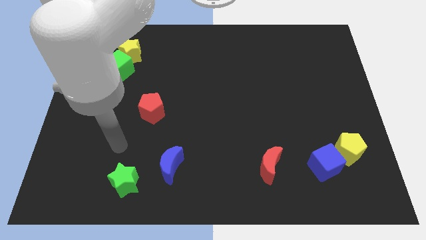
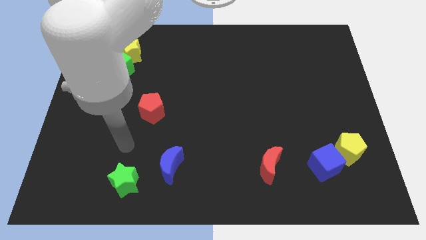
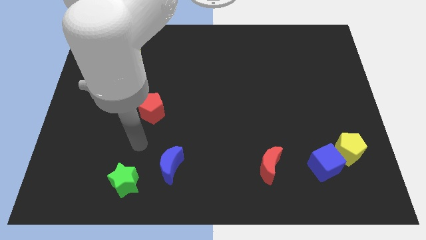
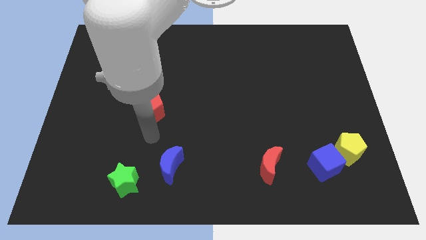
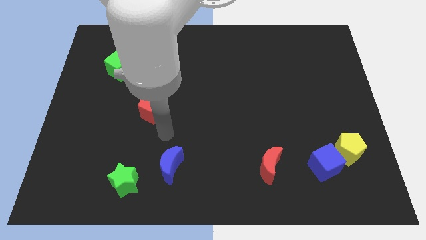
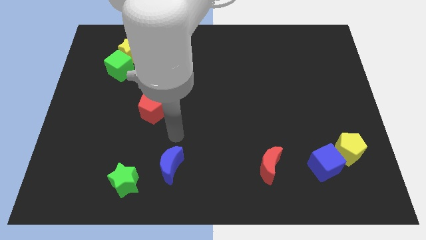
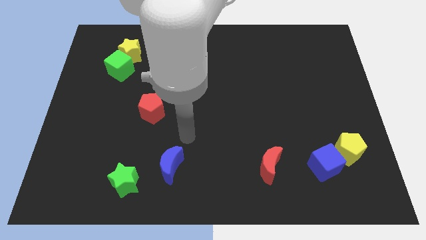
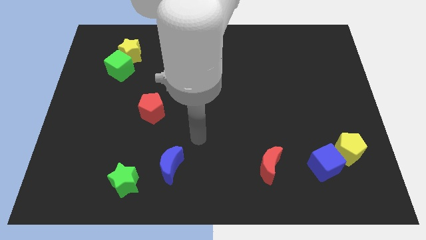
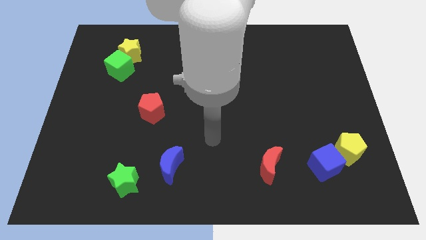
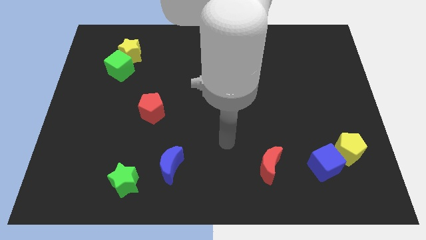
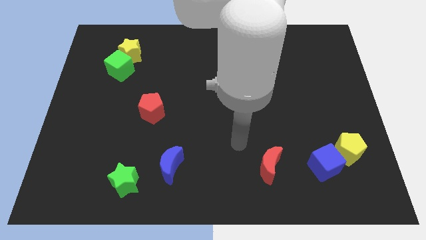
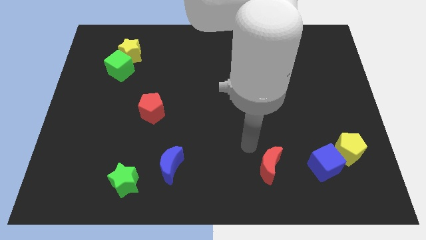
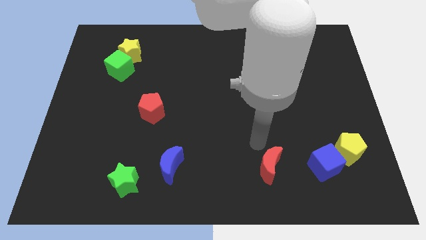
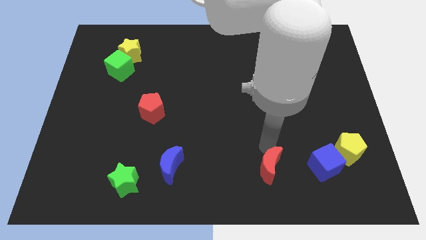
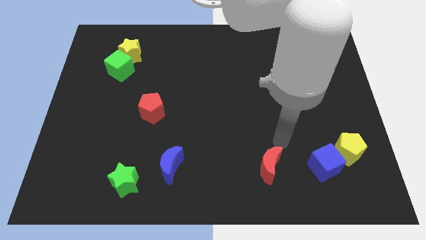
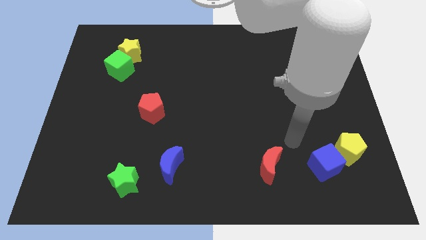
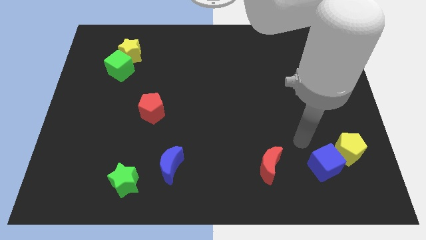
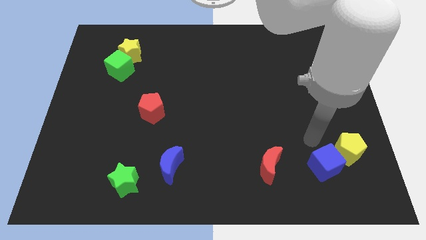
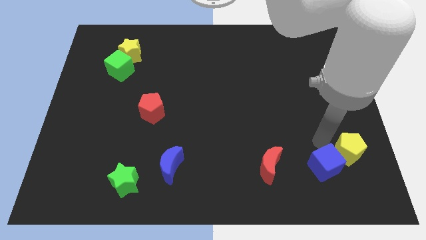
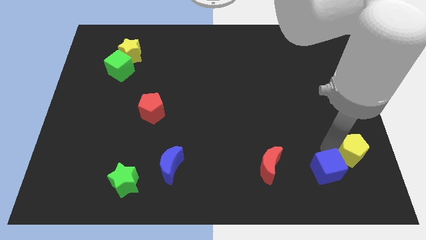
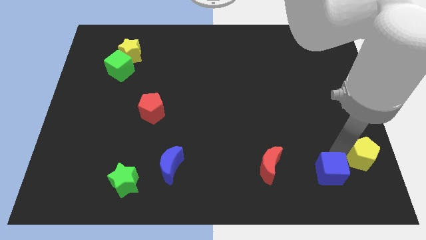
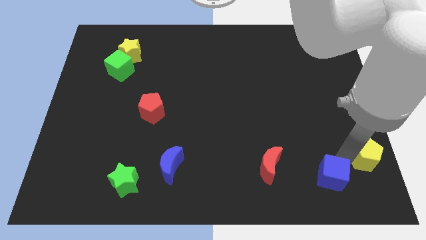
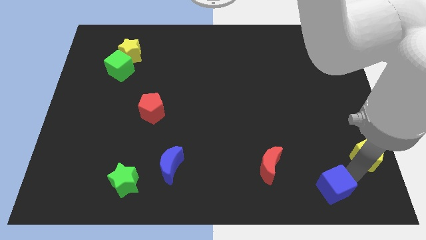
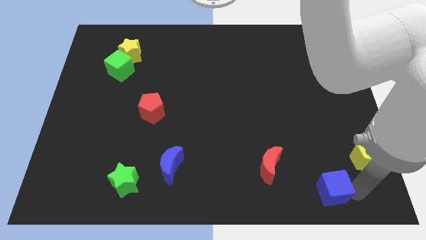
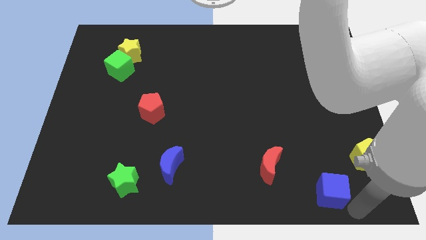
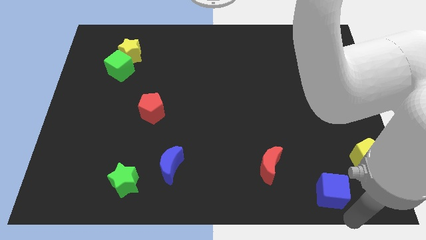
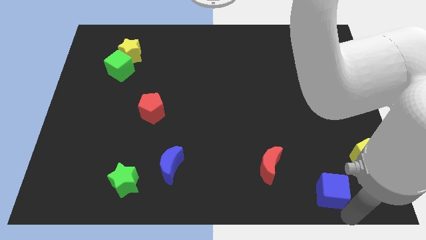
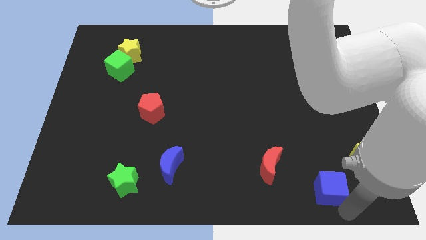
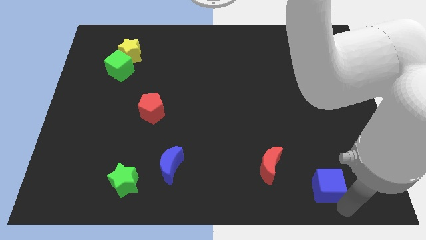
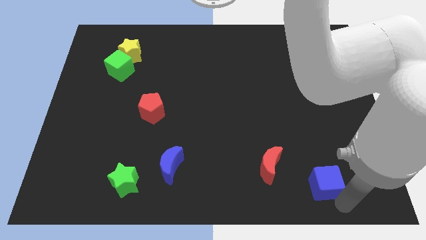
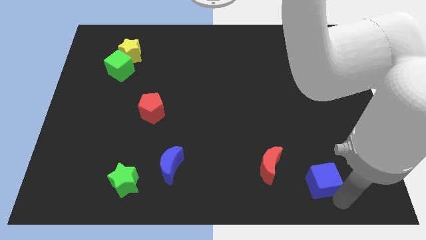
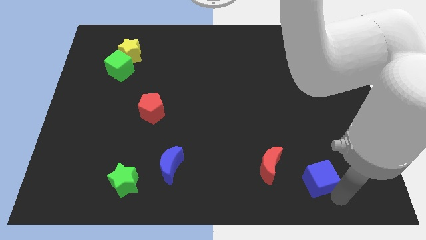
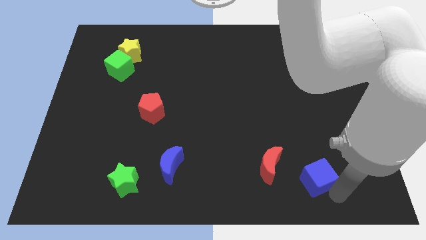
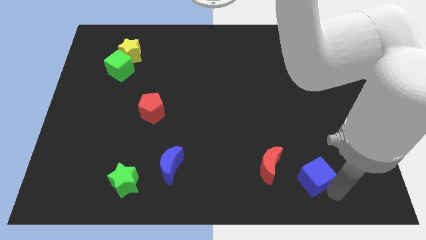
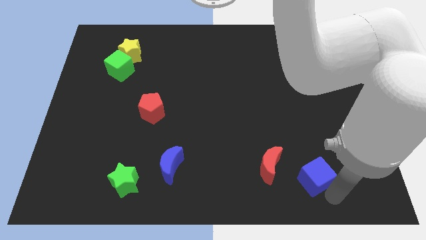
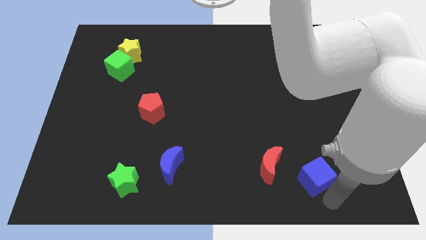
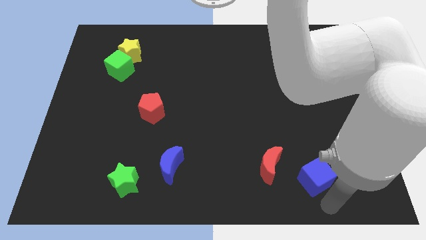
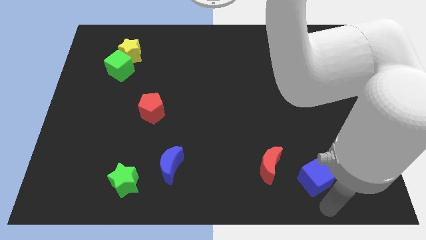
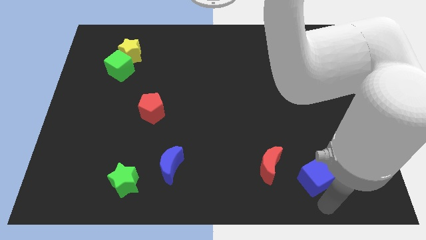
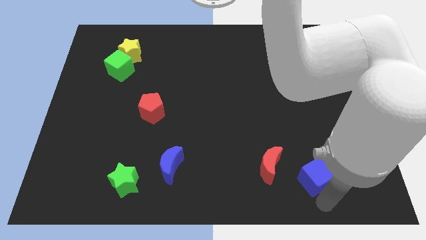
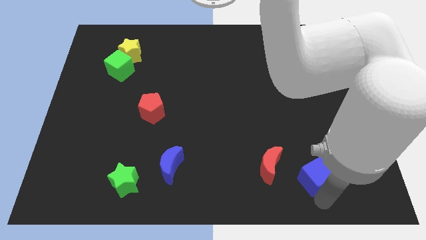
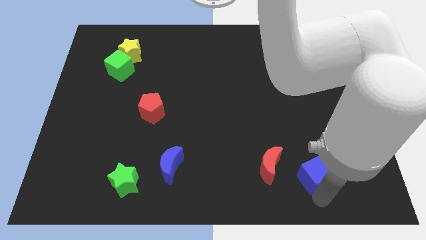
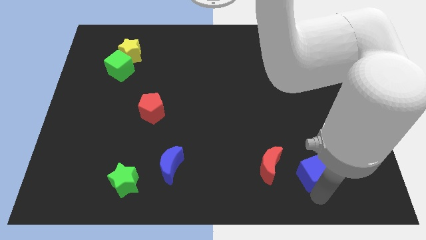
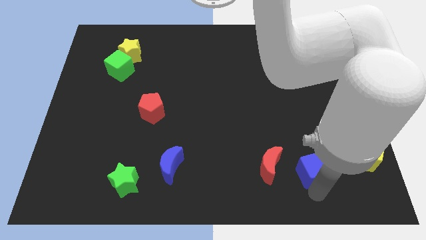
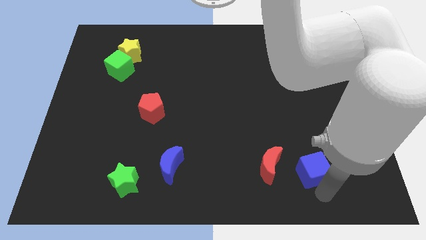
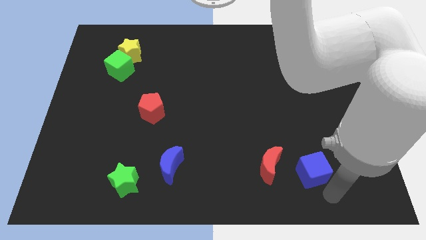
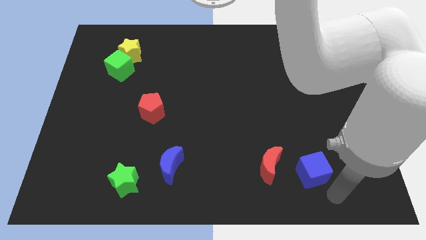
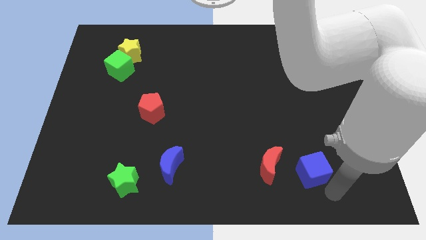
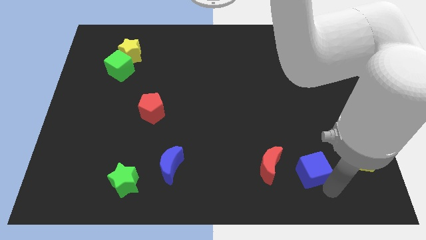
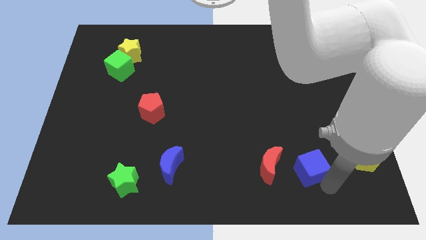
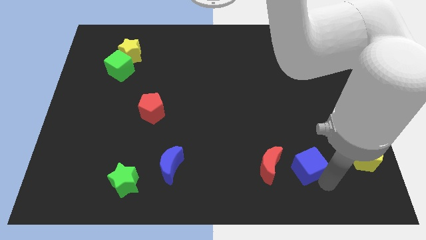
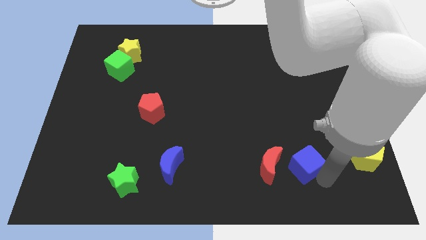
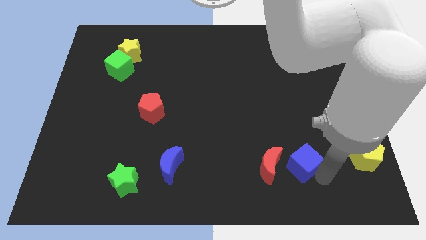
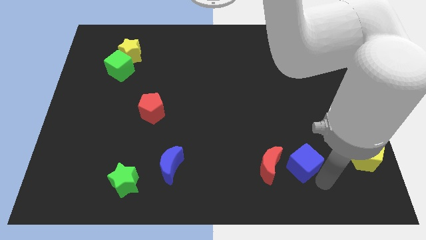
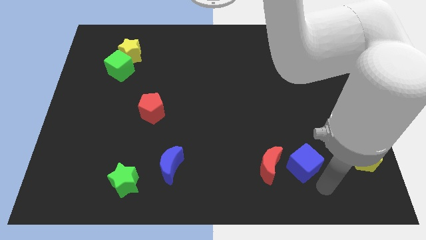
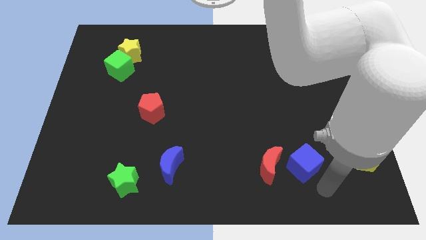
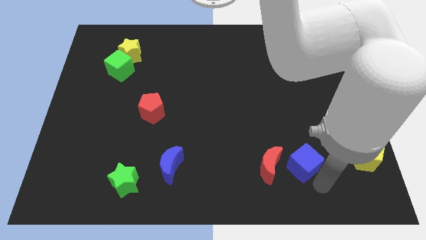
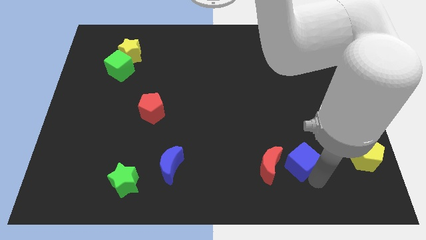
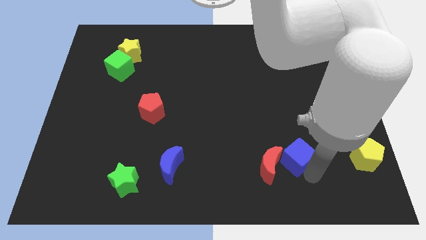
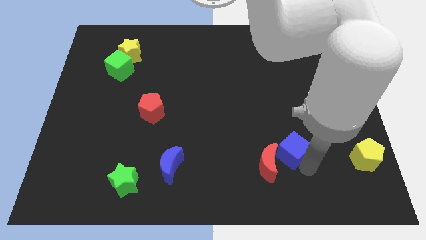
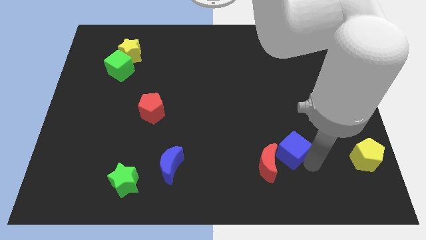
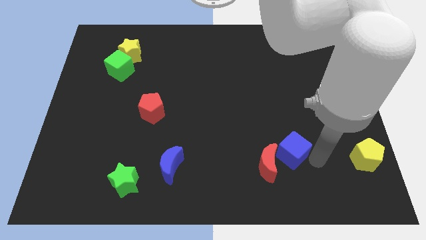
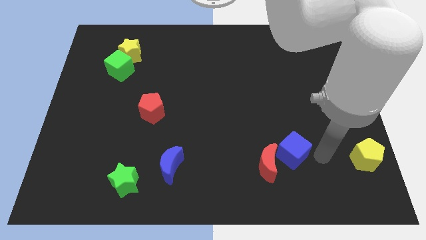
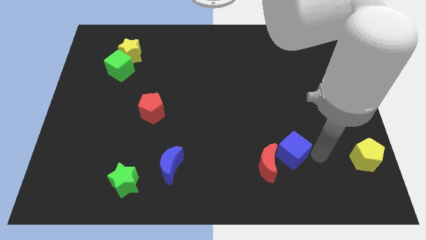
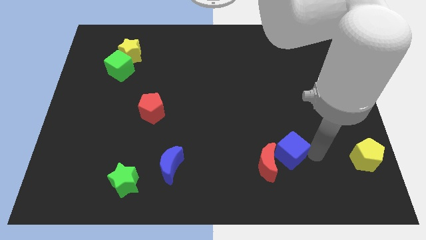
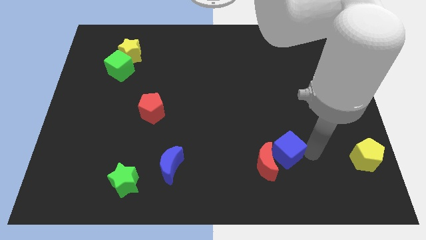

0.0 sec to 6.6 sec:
move the blue cube left a little bit

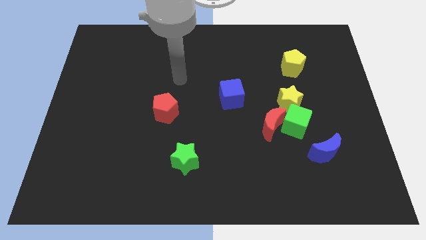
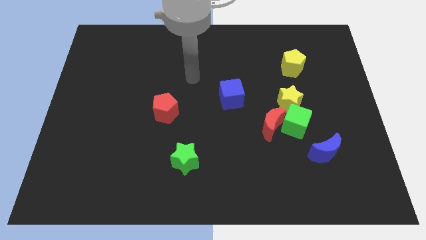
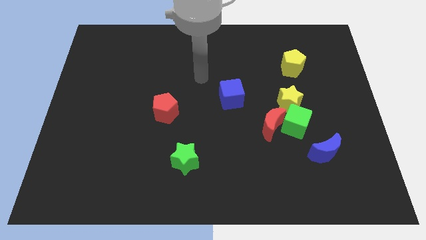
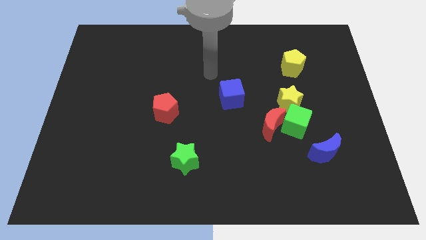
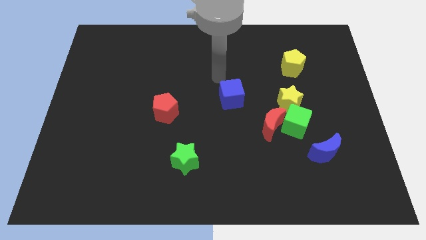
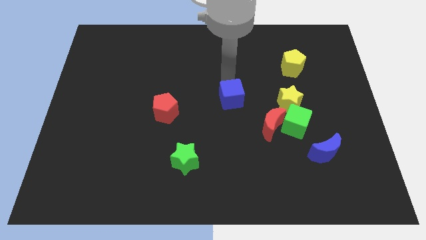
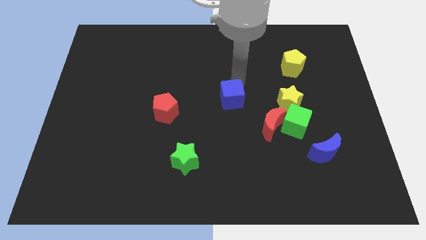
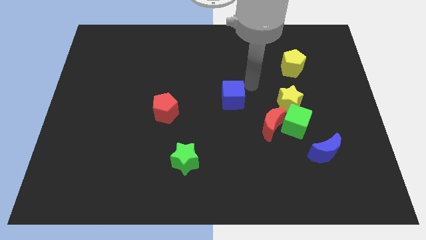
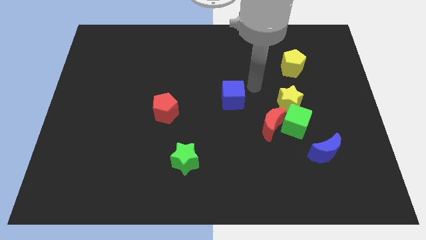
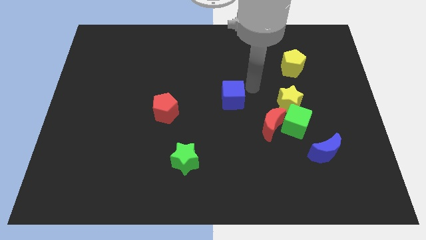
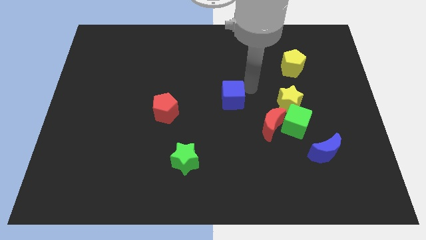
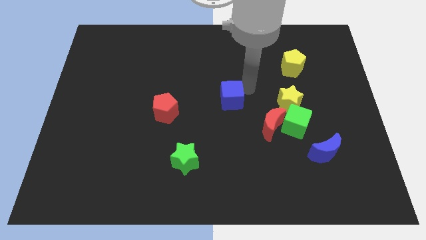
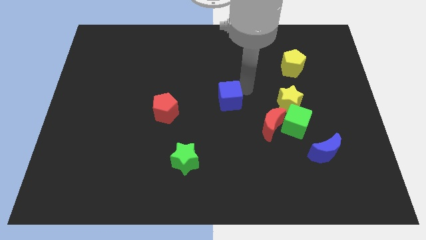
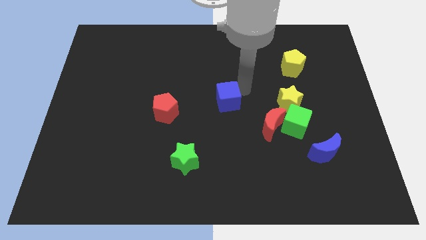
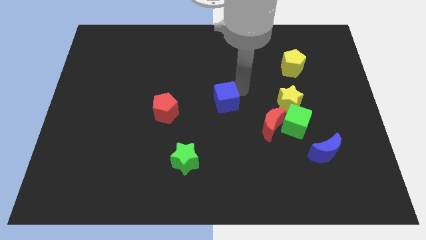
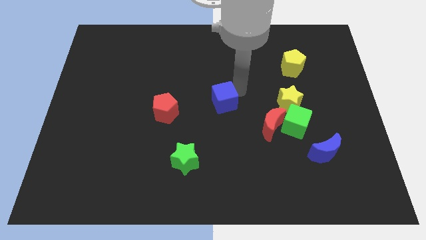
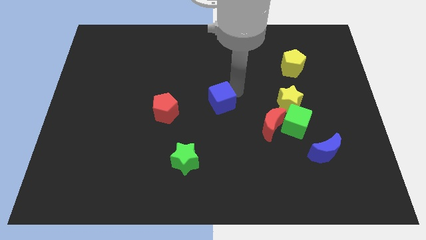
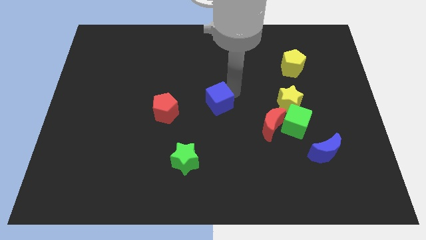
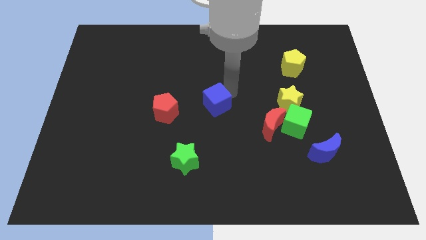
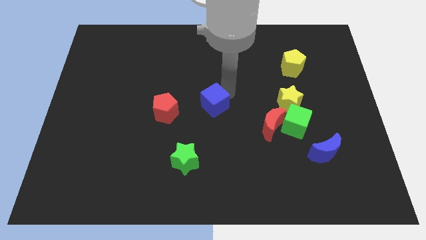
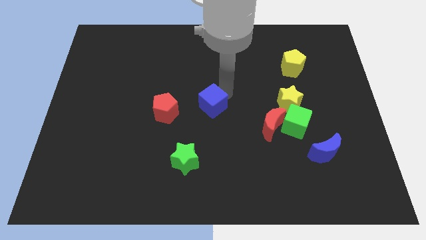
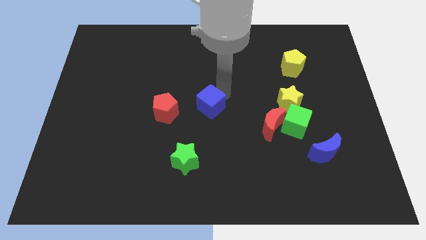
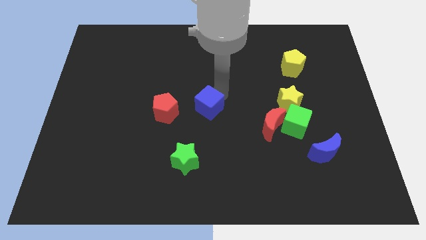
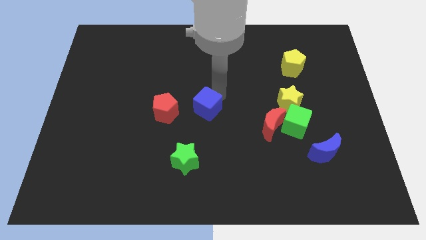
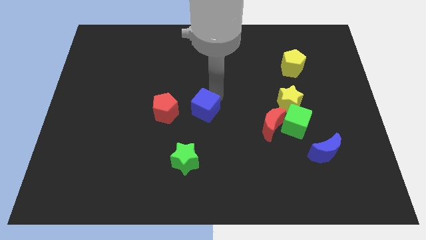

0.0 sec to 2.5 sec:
slide the blue cube slightly downwards and left diagonally
